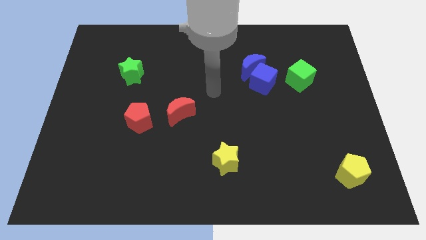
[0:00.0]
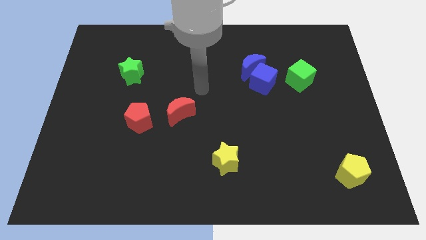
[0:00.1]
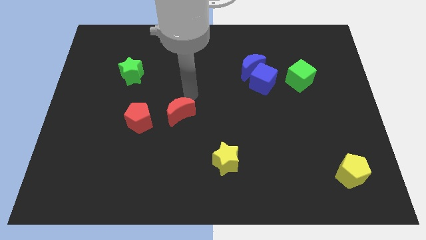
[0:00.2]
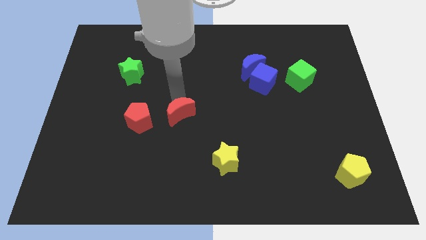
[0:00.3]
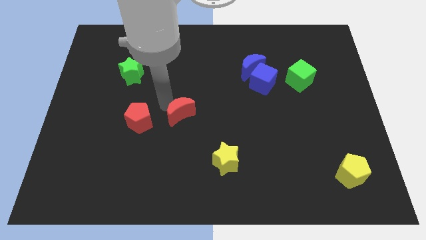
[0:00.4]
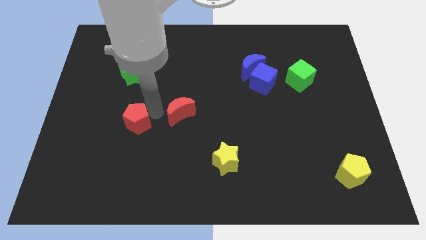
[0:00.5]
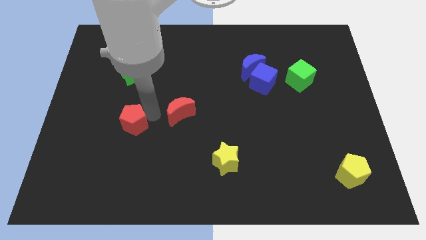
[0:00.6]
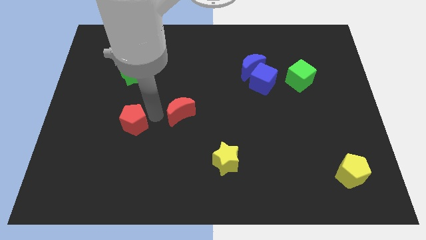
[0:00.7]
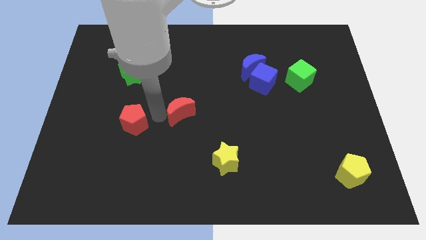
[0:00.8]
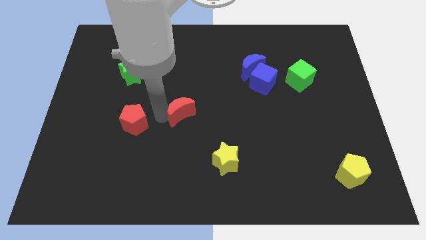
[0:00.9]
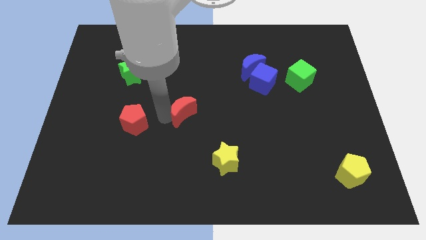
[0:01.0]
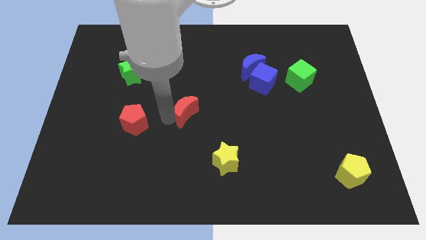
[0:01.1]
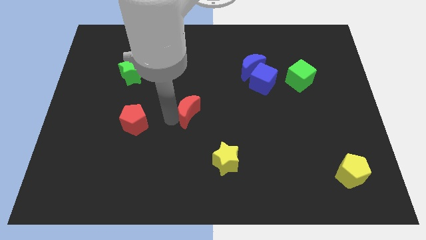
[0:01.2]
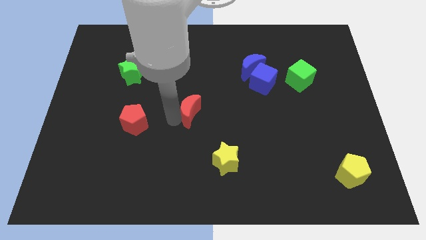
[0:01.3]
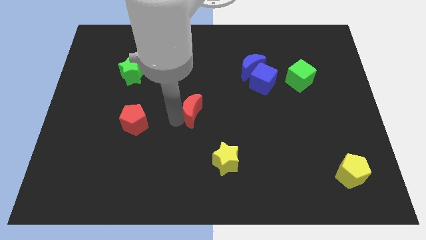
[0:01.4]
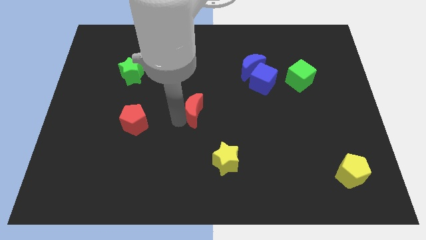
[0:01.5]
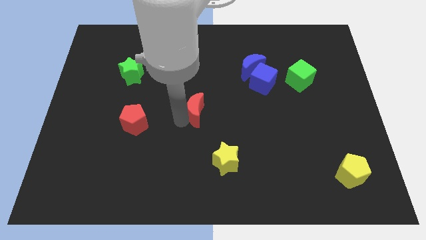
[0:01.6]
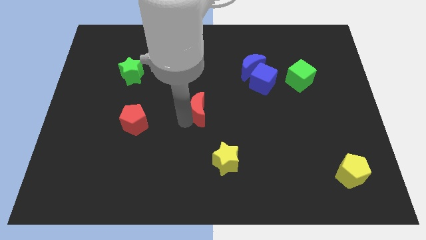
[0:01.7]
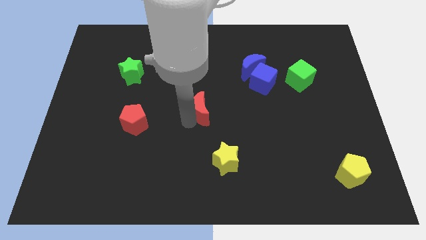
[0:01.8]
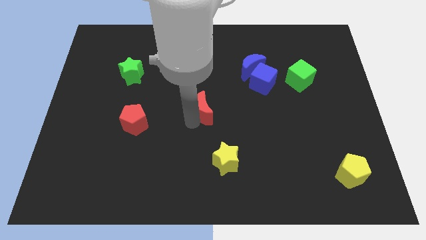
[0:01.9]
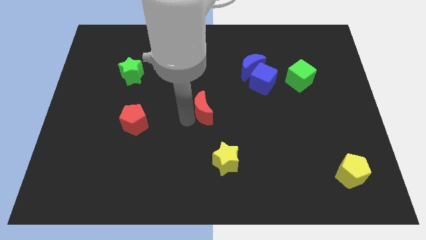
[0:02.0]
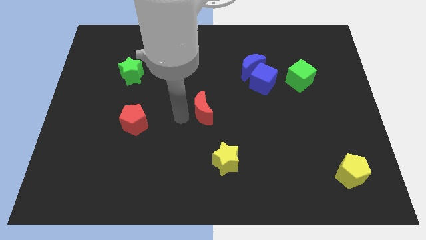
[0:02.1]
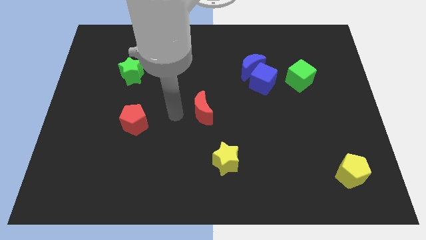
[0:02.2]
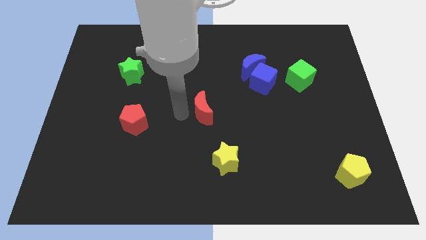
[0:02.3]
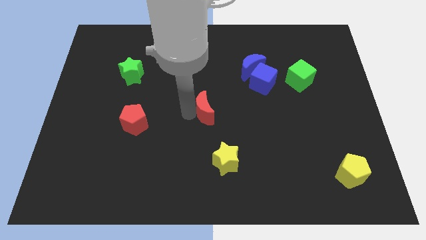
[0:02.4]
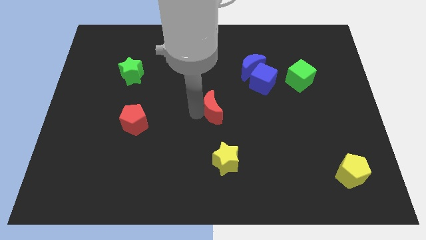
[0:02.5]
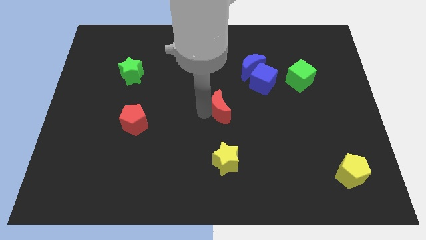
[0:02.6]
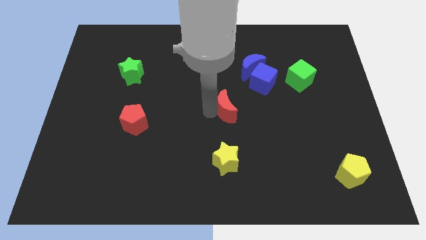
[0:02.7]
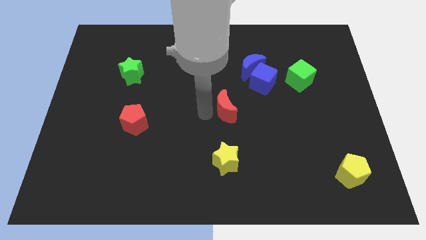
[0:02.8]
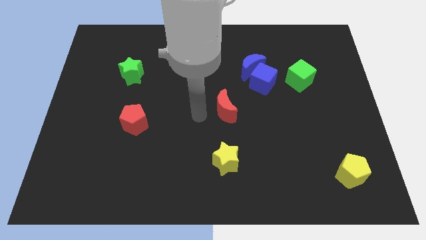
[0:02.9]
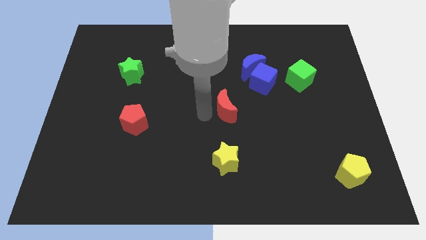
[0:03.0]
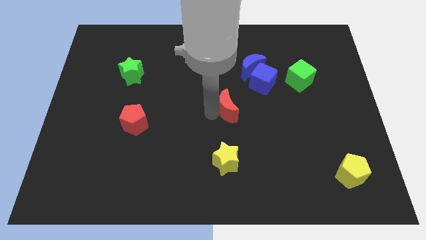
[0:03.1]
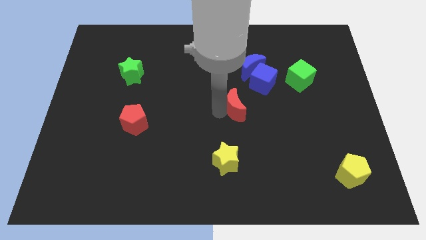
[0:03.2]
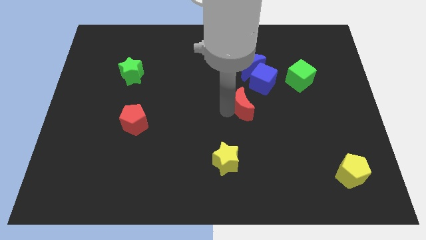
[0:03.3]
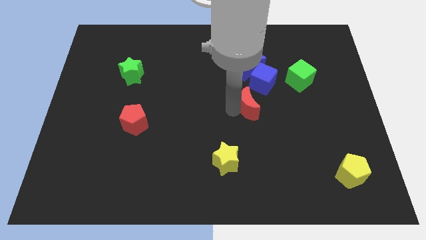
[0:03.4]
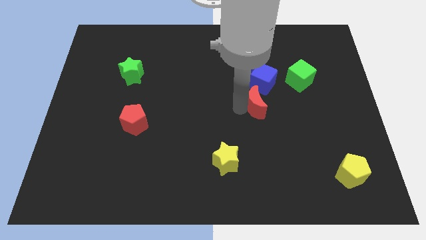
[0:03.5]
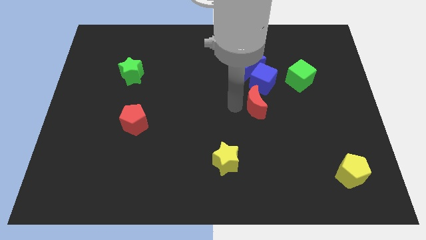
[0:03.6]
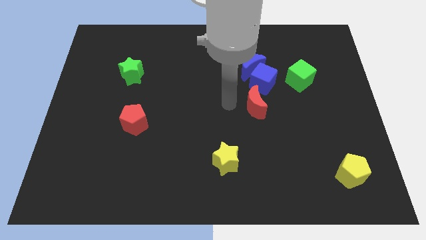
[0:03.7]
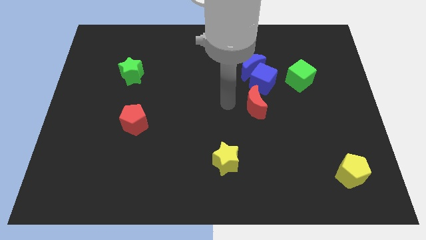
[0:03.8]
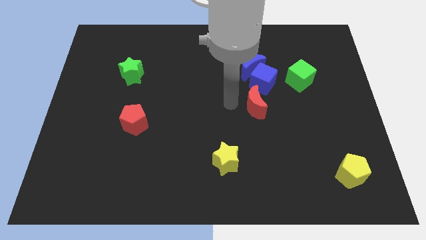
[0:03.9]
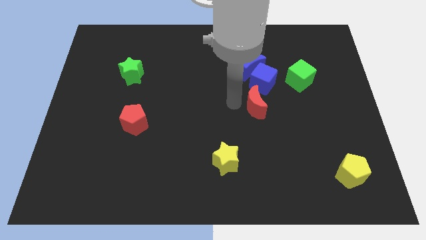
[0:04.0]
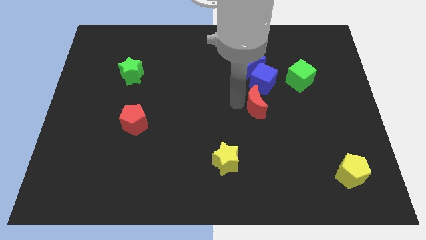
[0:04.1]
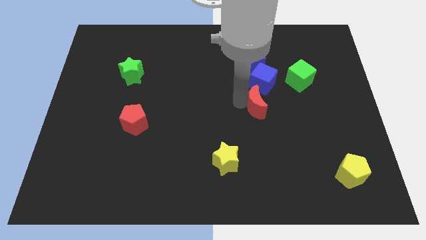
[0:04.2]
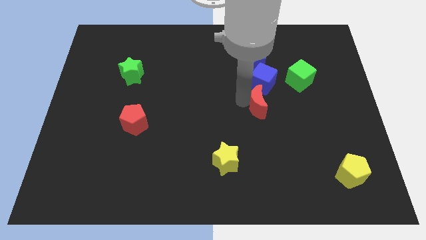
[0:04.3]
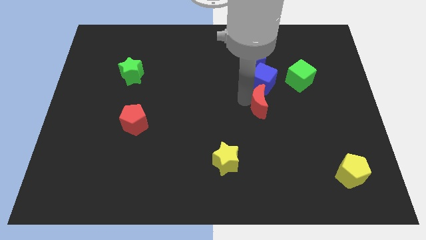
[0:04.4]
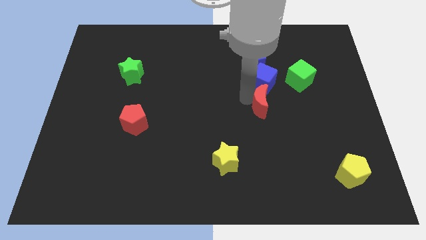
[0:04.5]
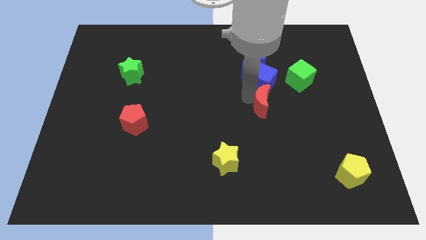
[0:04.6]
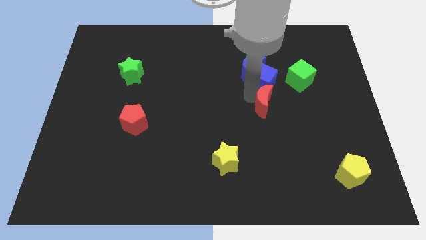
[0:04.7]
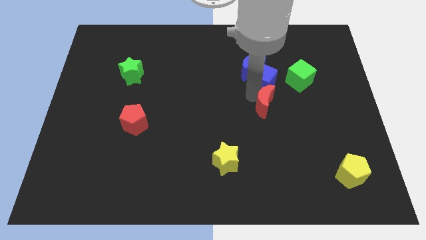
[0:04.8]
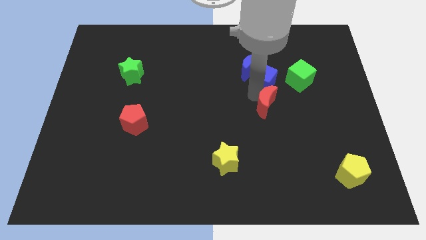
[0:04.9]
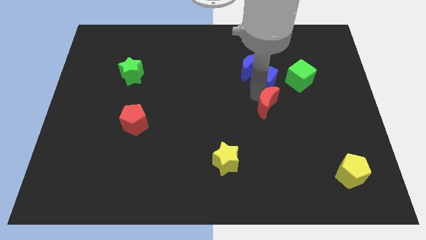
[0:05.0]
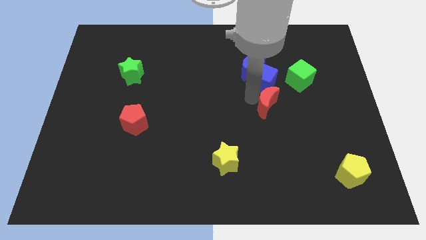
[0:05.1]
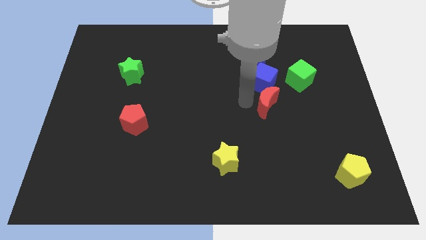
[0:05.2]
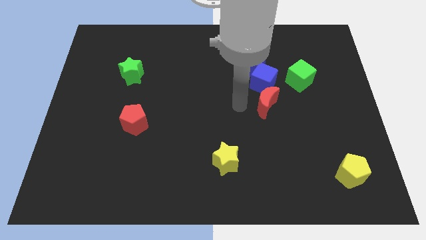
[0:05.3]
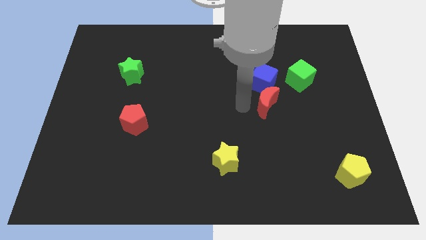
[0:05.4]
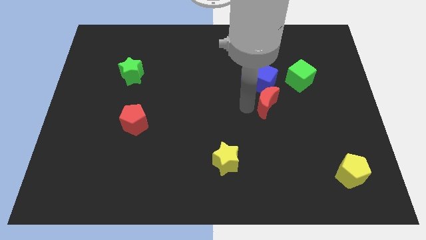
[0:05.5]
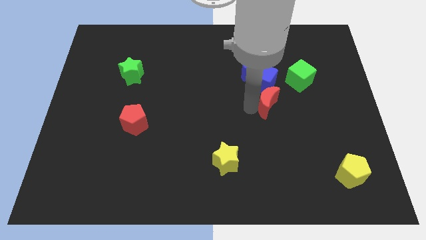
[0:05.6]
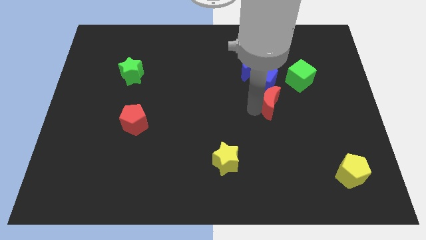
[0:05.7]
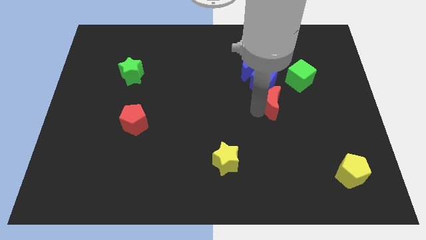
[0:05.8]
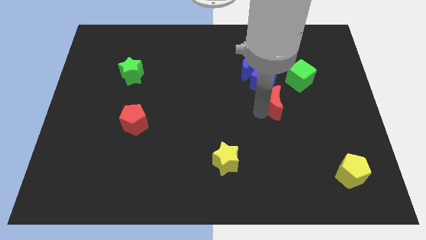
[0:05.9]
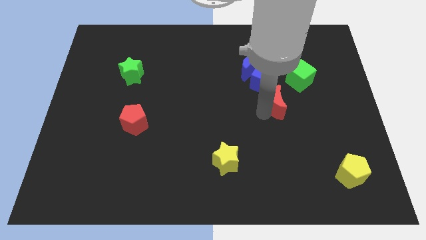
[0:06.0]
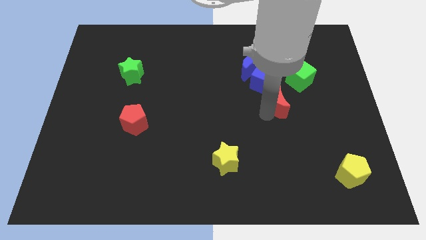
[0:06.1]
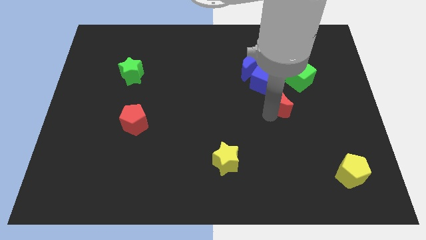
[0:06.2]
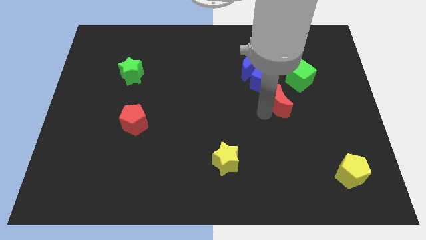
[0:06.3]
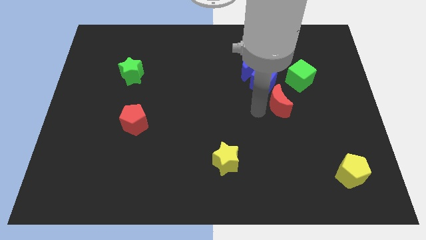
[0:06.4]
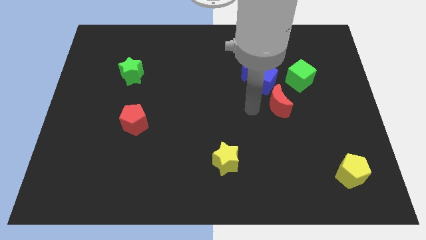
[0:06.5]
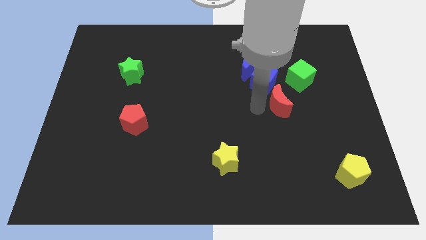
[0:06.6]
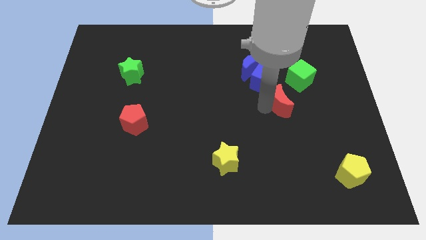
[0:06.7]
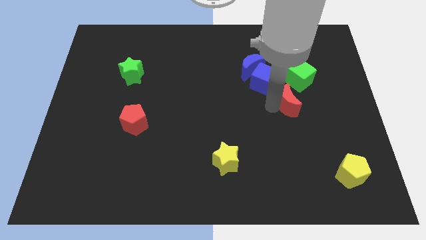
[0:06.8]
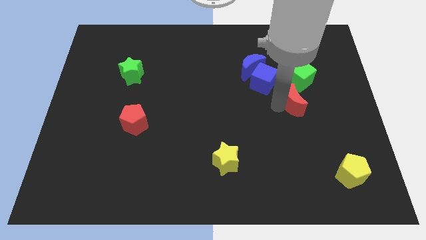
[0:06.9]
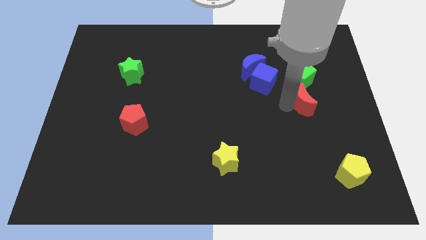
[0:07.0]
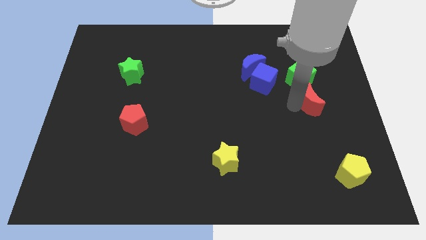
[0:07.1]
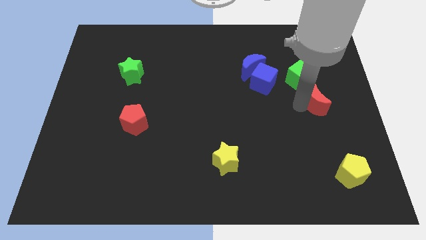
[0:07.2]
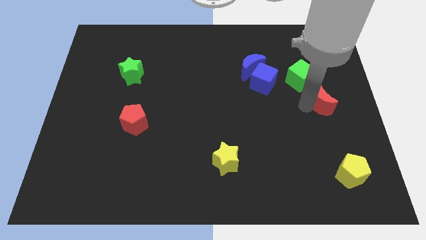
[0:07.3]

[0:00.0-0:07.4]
push the red moon to the center right
